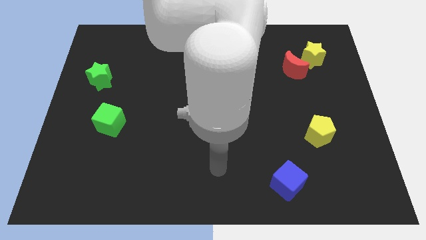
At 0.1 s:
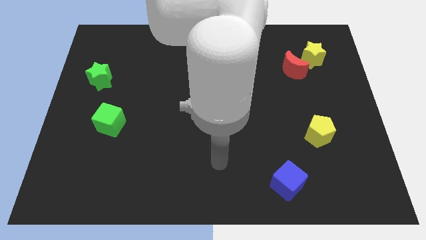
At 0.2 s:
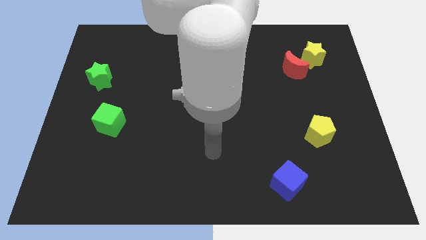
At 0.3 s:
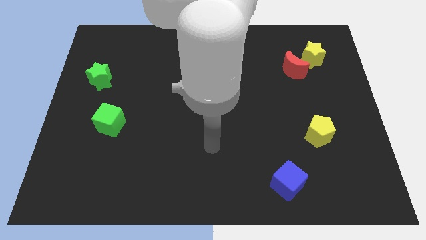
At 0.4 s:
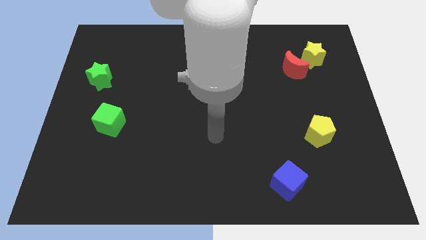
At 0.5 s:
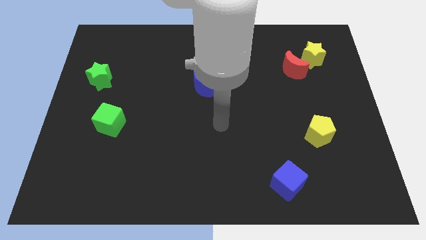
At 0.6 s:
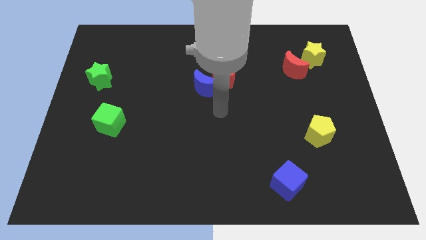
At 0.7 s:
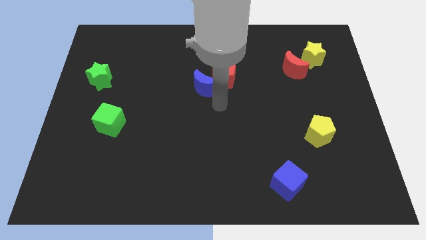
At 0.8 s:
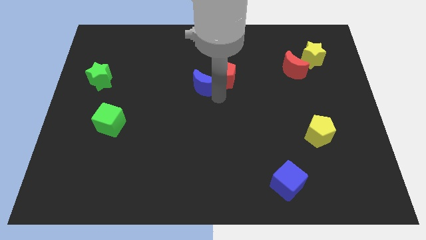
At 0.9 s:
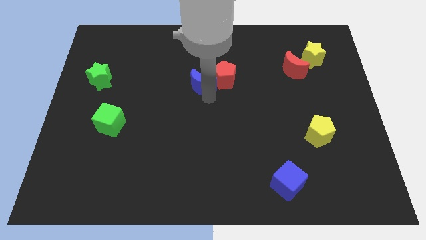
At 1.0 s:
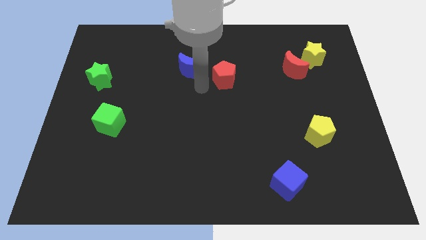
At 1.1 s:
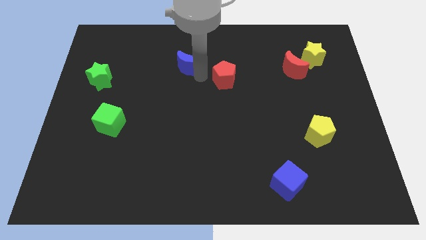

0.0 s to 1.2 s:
pull the red pentagon apart from the blue moon

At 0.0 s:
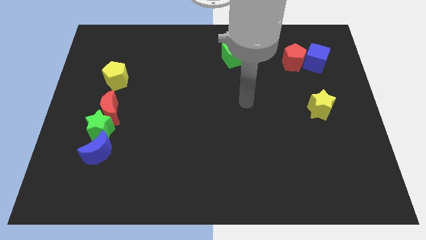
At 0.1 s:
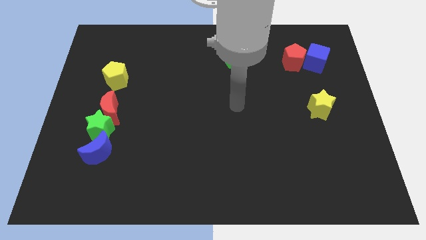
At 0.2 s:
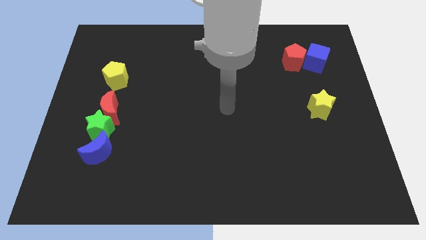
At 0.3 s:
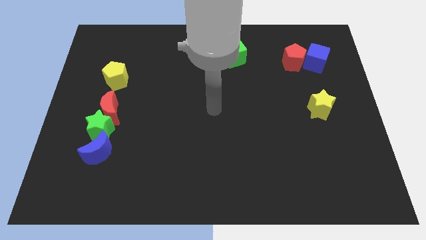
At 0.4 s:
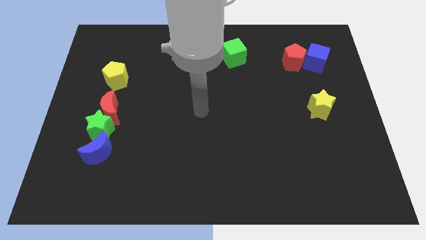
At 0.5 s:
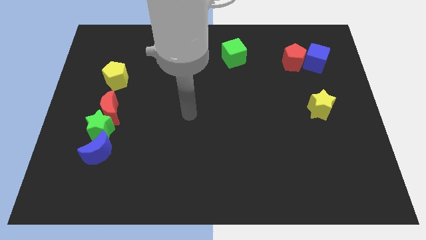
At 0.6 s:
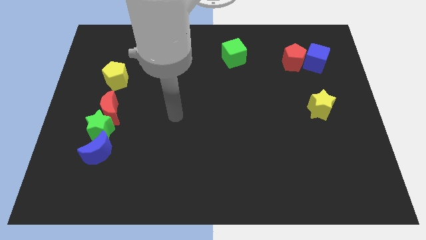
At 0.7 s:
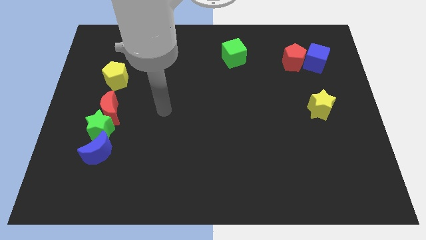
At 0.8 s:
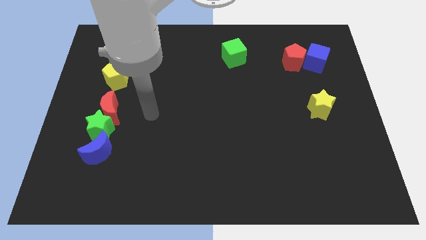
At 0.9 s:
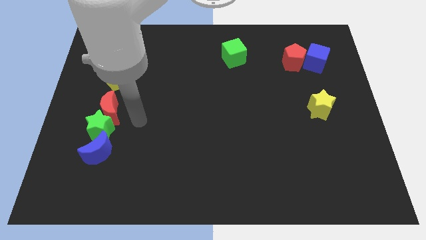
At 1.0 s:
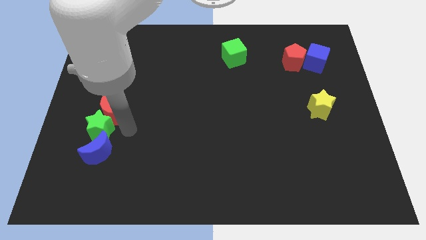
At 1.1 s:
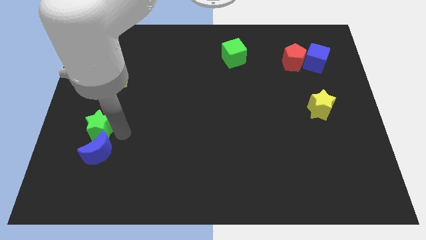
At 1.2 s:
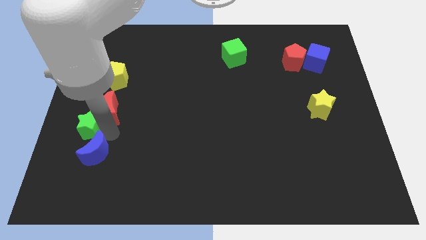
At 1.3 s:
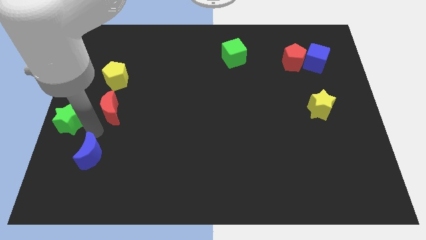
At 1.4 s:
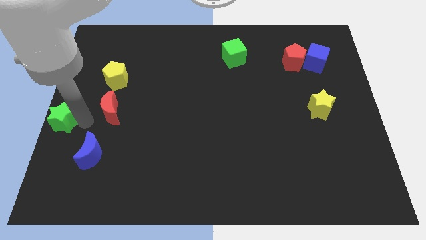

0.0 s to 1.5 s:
move the red moon away from the green star

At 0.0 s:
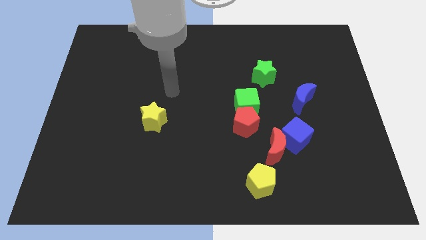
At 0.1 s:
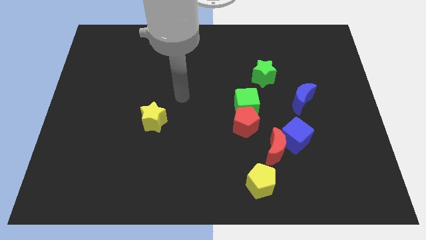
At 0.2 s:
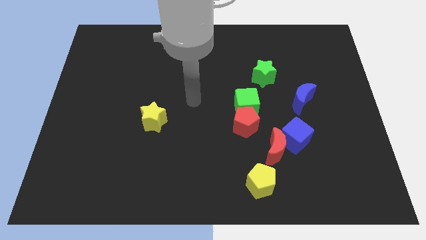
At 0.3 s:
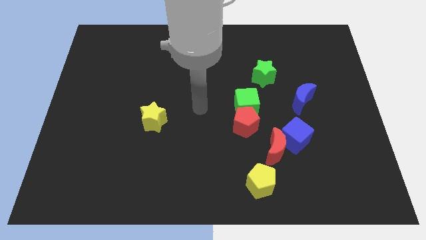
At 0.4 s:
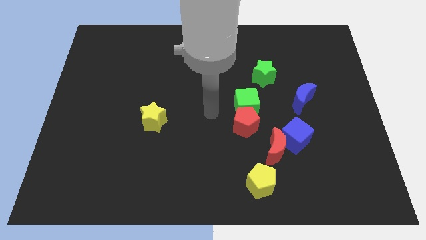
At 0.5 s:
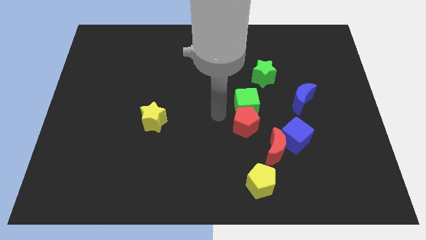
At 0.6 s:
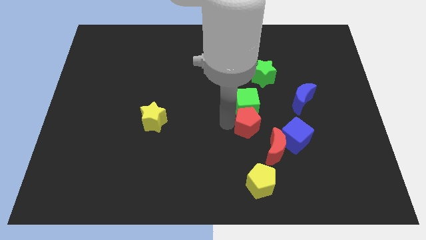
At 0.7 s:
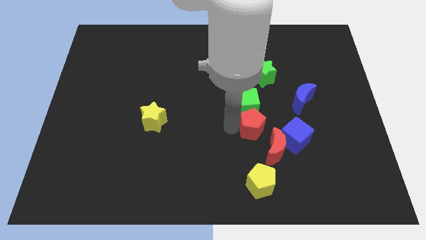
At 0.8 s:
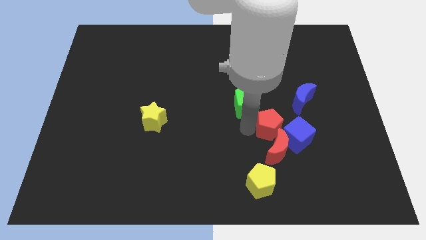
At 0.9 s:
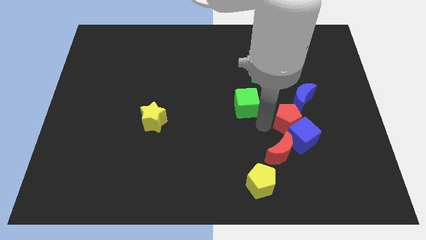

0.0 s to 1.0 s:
separate the green cube from the red pentagon

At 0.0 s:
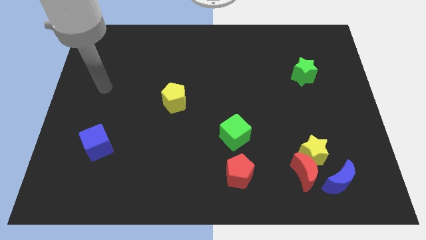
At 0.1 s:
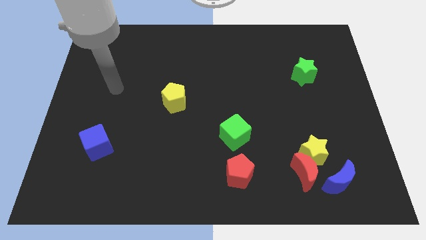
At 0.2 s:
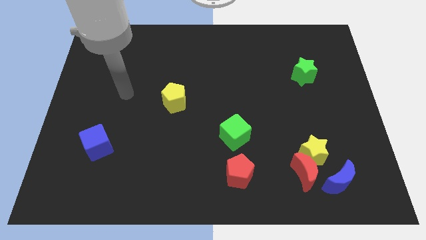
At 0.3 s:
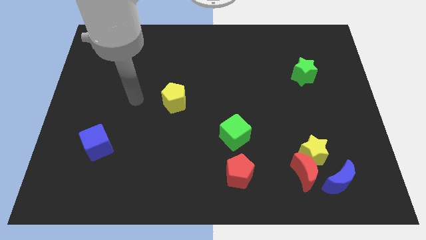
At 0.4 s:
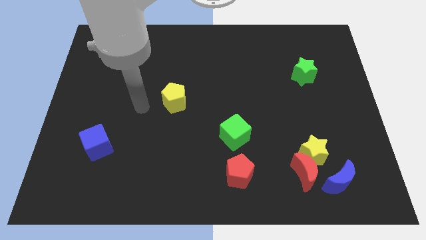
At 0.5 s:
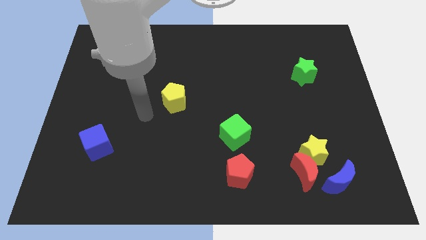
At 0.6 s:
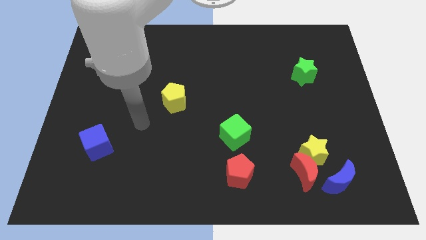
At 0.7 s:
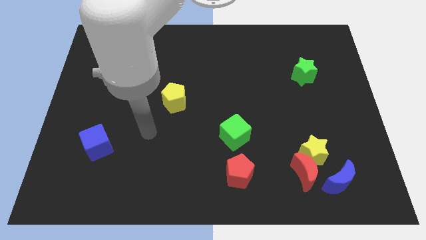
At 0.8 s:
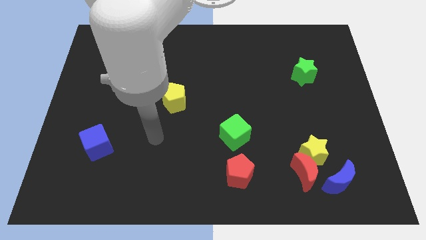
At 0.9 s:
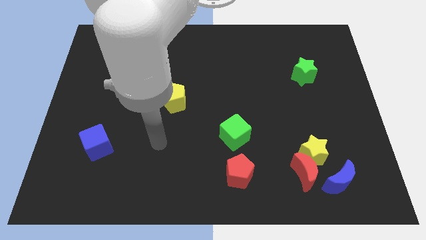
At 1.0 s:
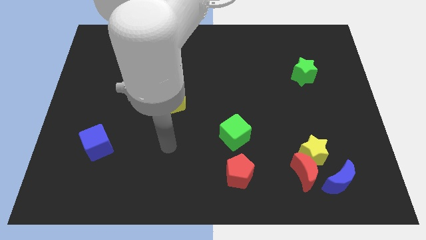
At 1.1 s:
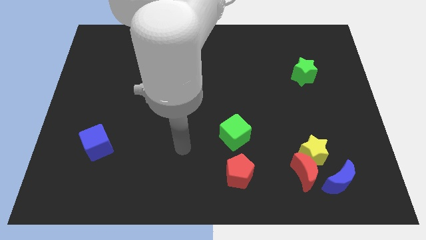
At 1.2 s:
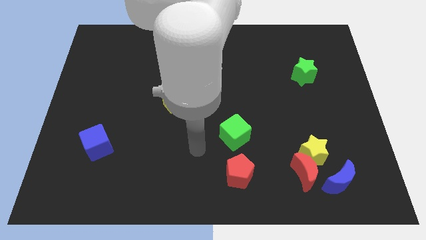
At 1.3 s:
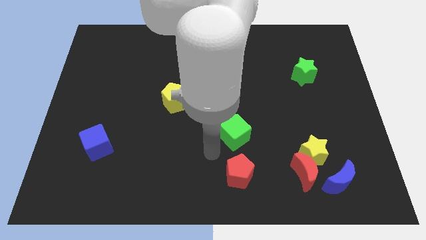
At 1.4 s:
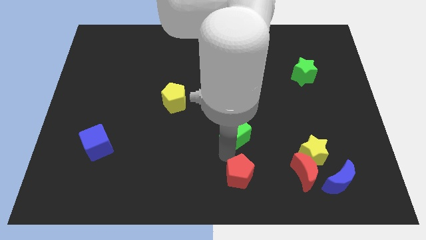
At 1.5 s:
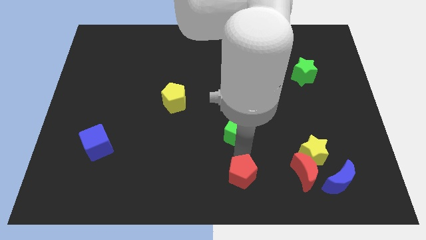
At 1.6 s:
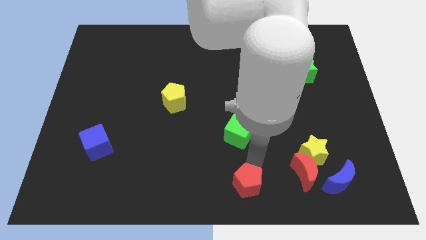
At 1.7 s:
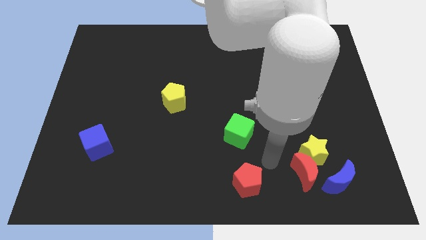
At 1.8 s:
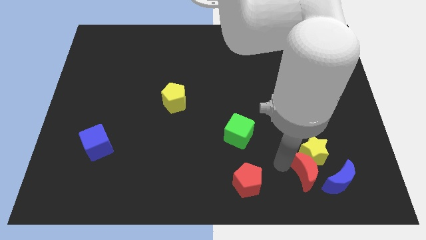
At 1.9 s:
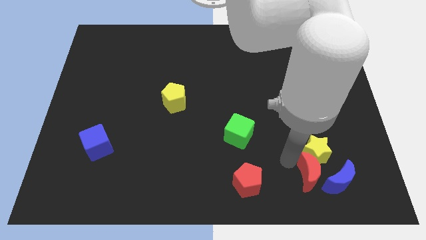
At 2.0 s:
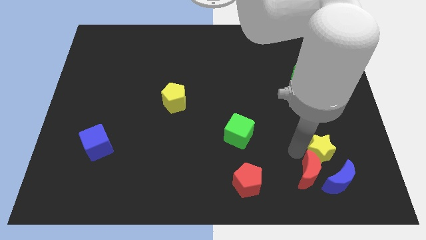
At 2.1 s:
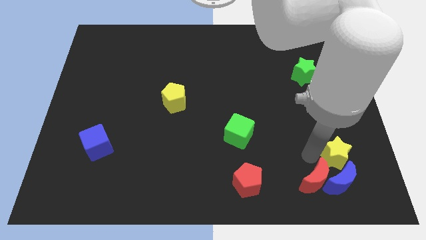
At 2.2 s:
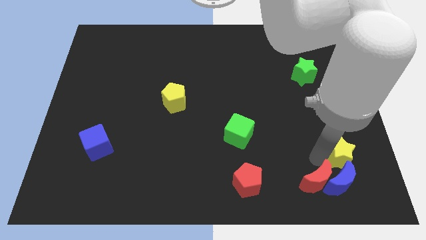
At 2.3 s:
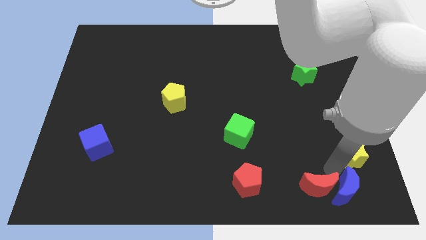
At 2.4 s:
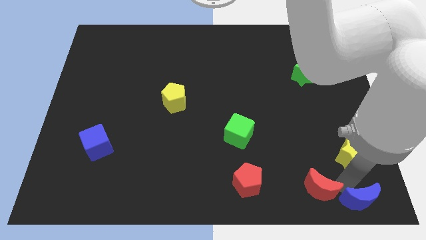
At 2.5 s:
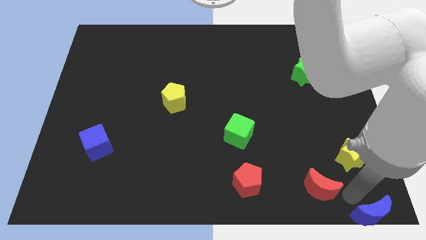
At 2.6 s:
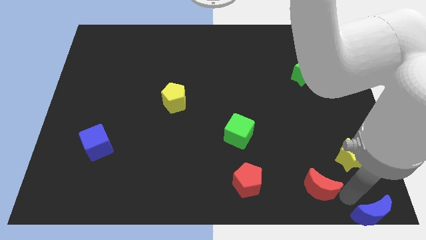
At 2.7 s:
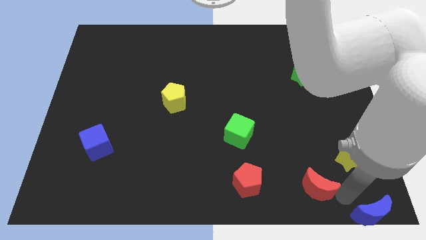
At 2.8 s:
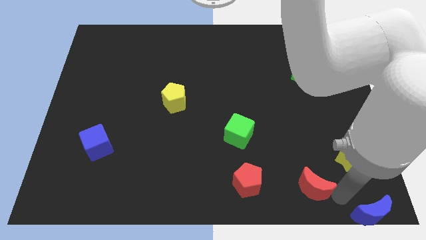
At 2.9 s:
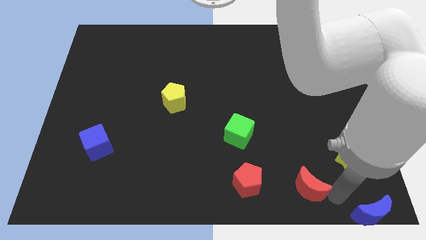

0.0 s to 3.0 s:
separate the red moon from the yellow star and blue moon

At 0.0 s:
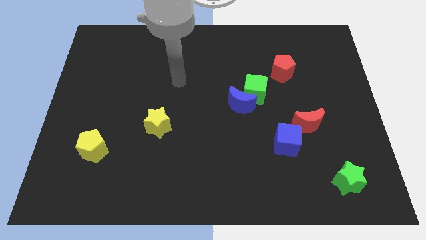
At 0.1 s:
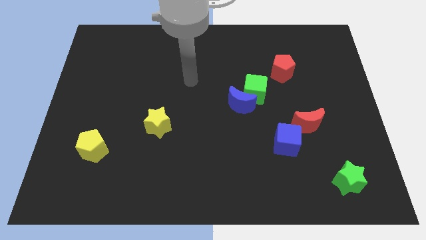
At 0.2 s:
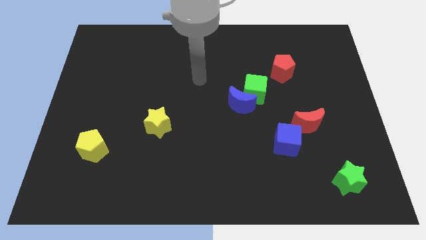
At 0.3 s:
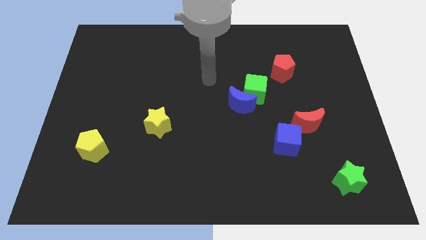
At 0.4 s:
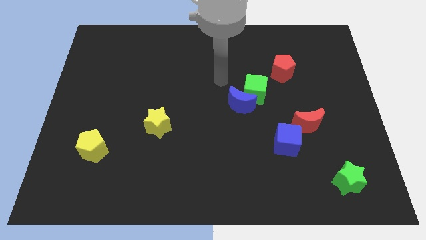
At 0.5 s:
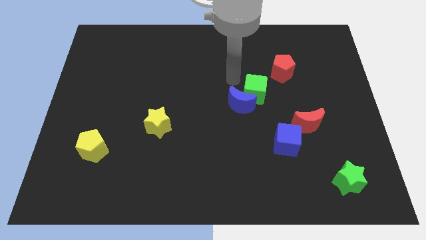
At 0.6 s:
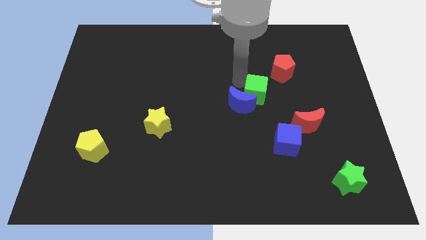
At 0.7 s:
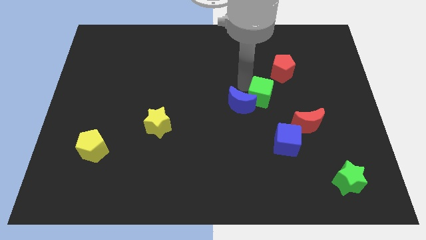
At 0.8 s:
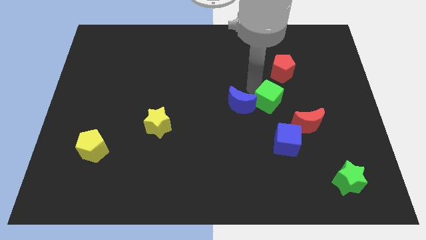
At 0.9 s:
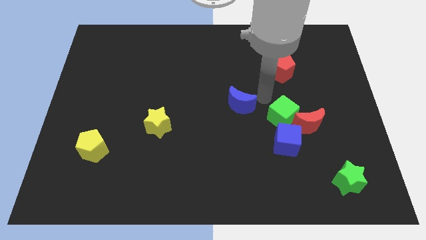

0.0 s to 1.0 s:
pull the blue moon apart from the green cube

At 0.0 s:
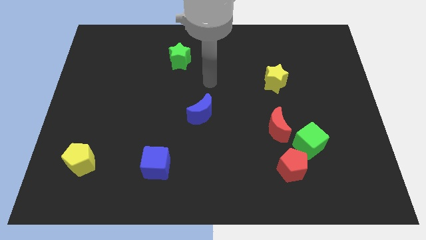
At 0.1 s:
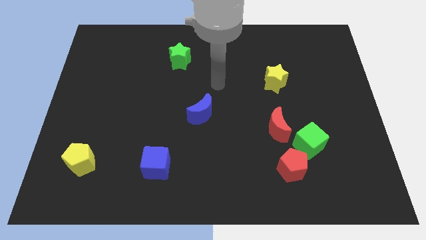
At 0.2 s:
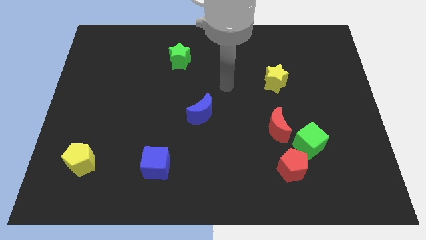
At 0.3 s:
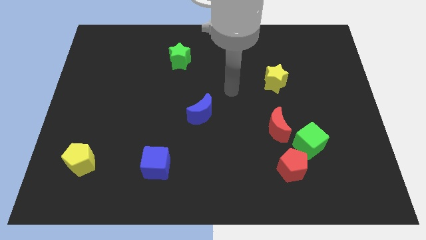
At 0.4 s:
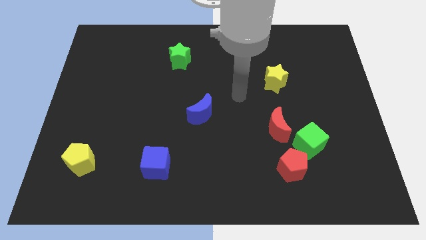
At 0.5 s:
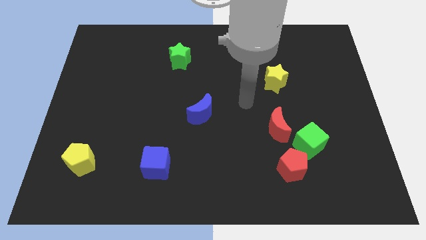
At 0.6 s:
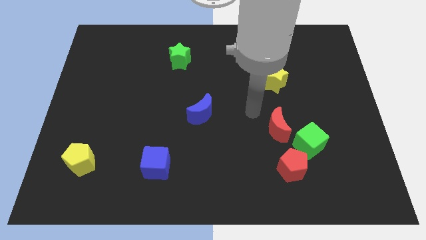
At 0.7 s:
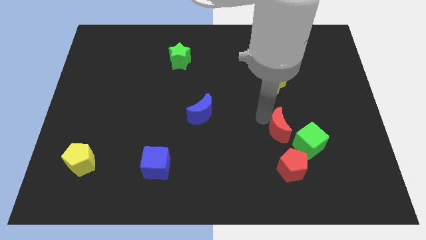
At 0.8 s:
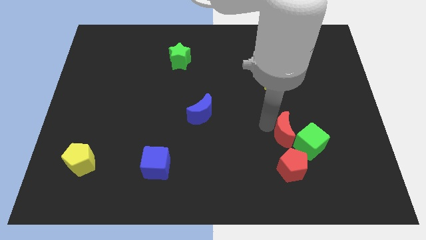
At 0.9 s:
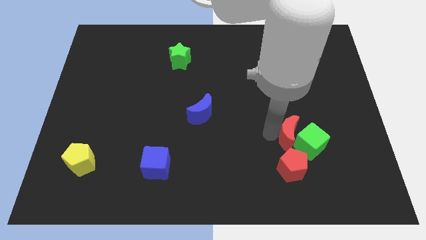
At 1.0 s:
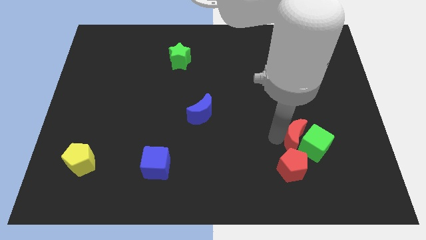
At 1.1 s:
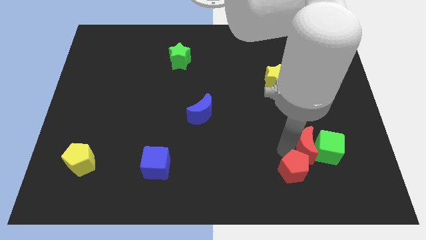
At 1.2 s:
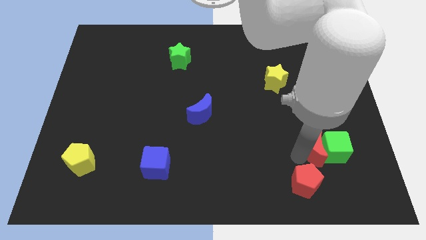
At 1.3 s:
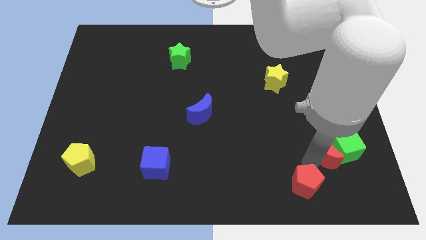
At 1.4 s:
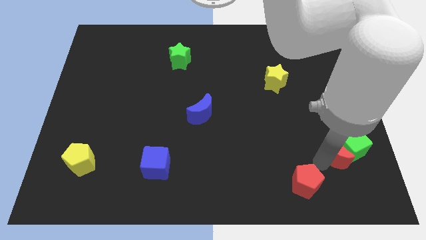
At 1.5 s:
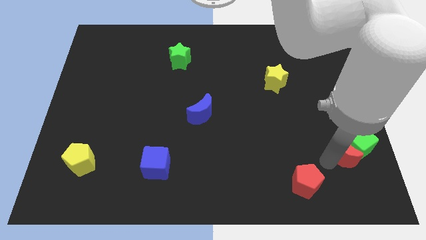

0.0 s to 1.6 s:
separate the green cube from the red pentagon and red moon
